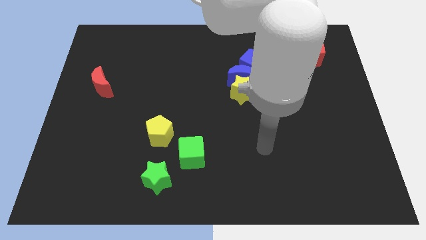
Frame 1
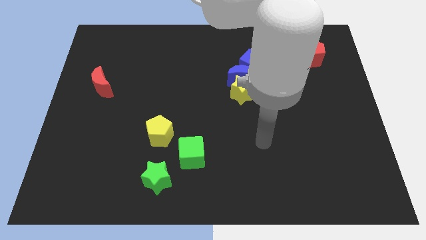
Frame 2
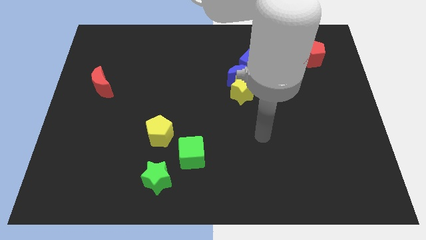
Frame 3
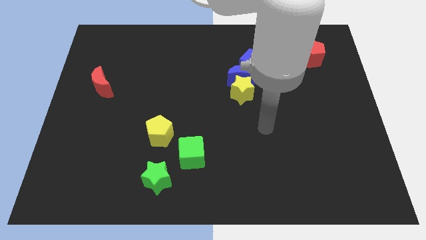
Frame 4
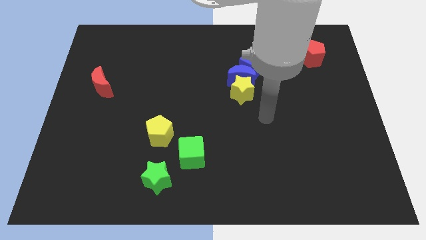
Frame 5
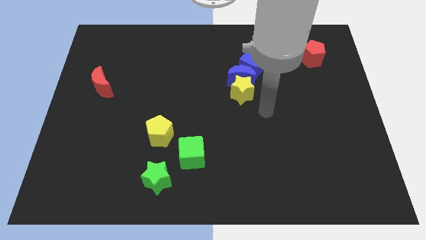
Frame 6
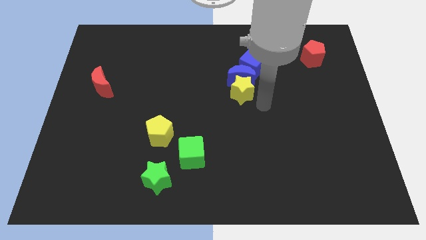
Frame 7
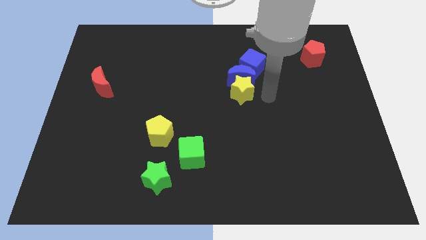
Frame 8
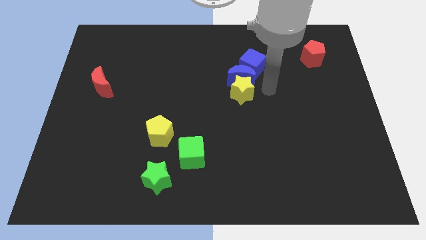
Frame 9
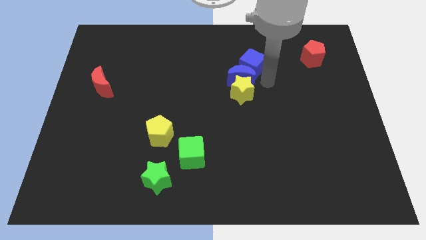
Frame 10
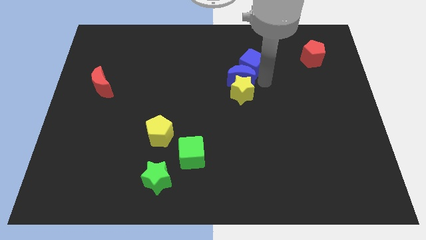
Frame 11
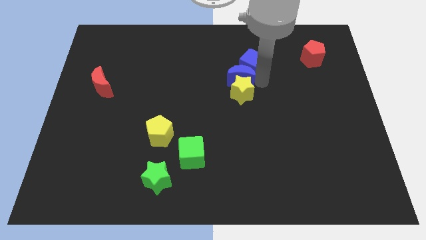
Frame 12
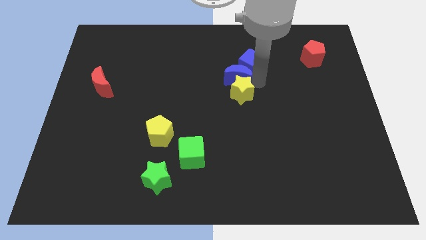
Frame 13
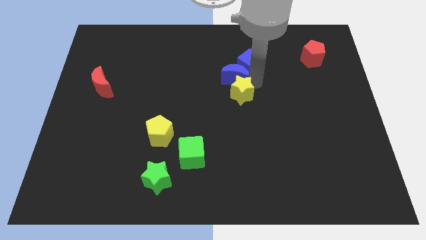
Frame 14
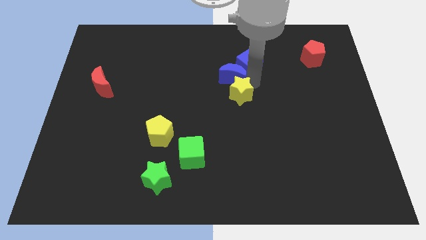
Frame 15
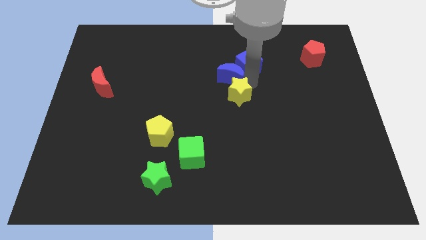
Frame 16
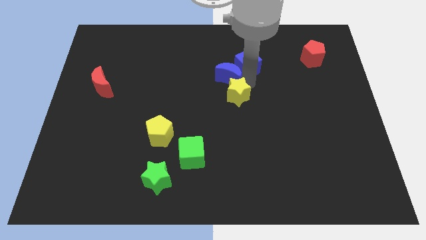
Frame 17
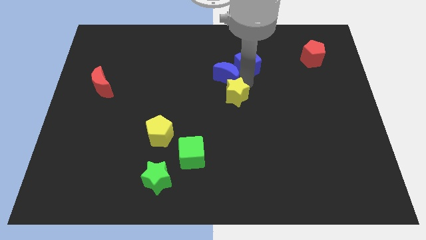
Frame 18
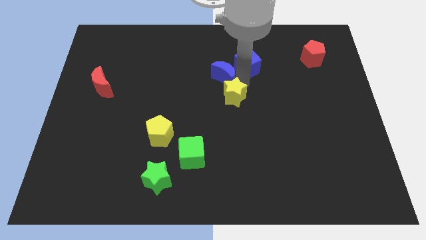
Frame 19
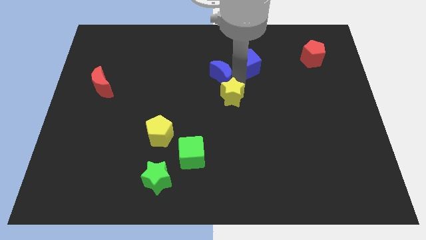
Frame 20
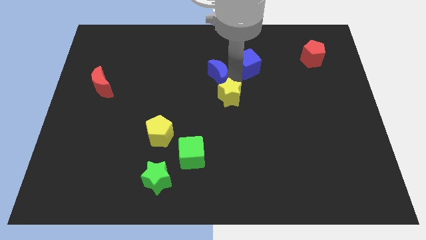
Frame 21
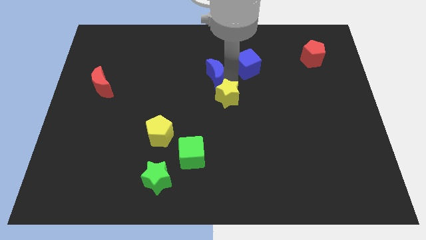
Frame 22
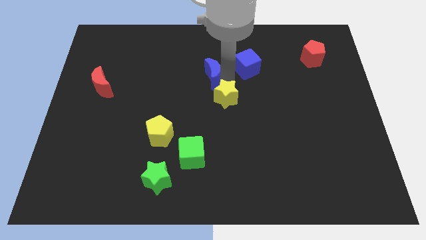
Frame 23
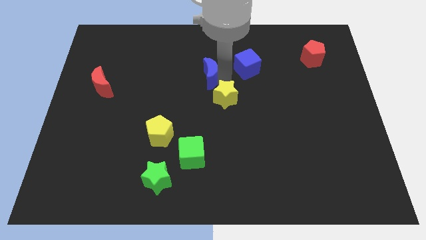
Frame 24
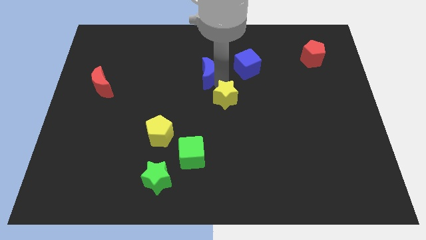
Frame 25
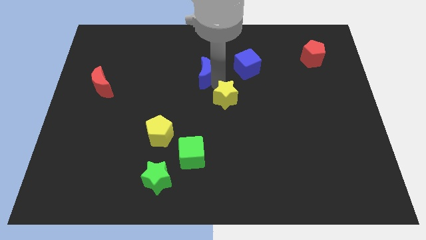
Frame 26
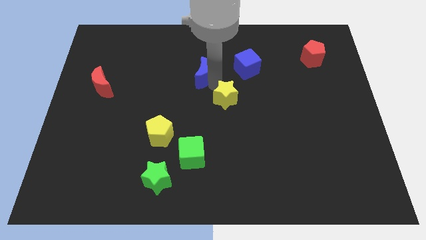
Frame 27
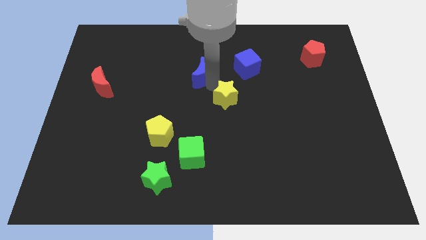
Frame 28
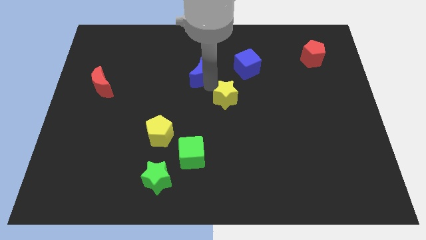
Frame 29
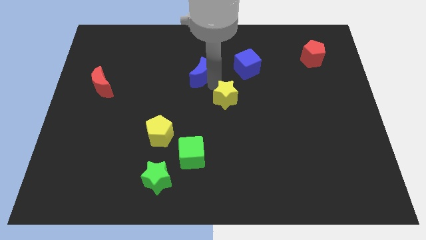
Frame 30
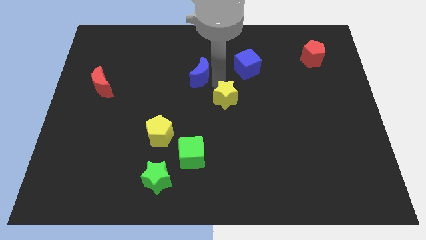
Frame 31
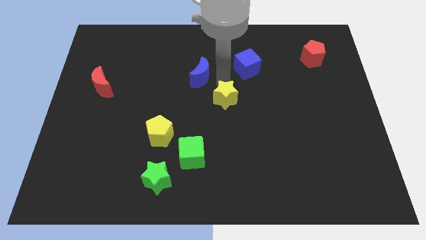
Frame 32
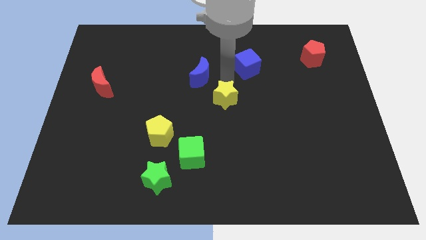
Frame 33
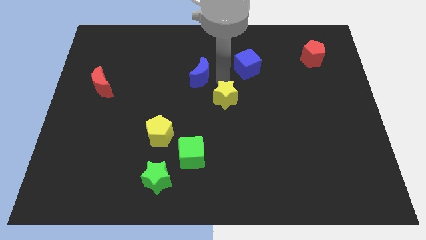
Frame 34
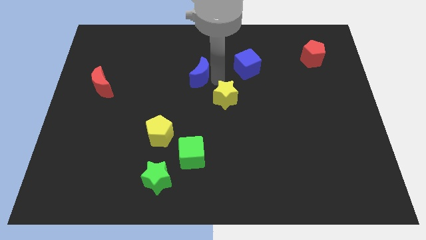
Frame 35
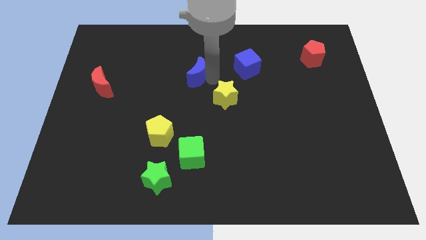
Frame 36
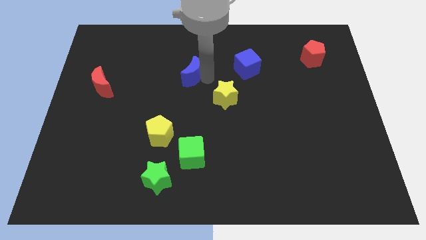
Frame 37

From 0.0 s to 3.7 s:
separate the blue moon from the yellow star and blue cube

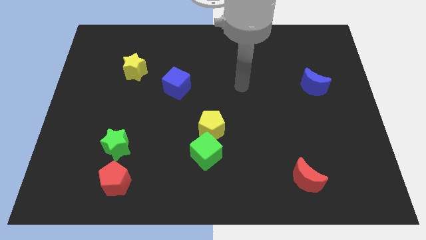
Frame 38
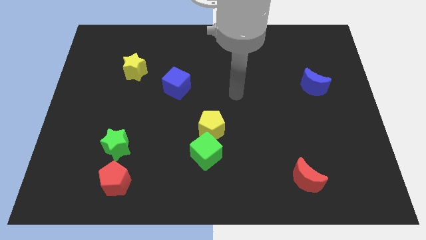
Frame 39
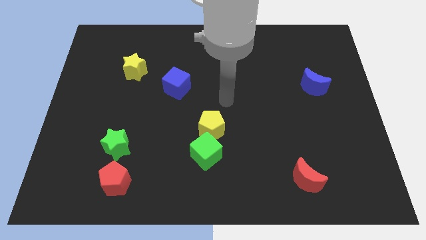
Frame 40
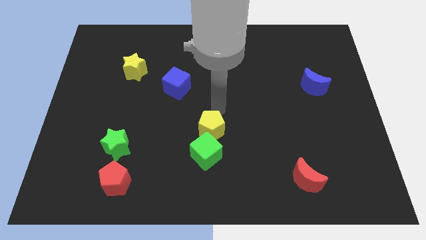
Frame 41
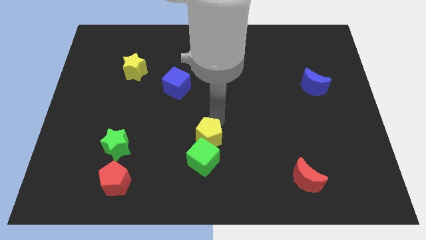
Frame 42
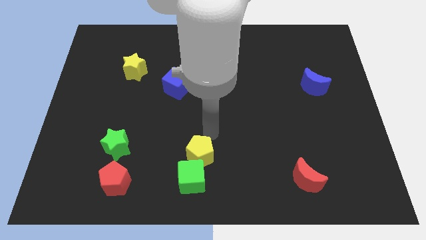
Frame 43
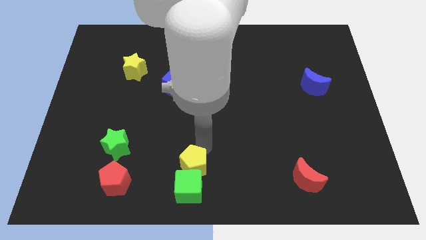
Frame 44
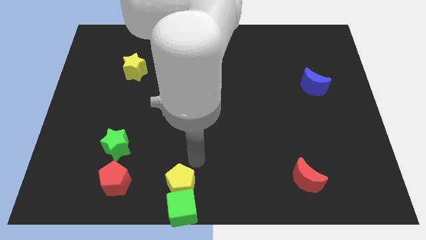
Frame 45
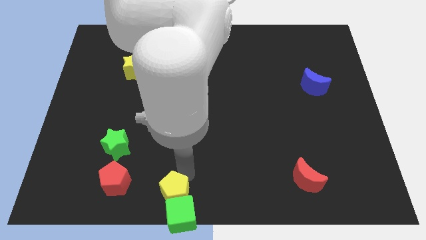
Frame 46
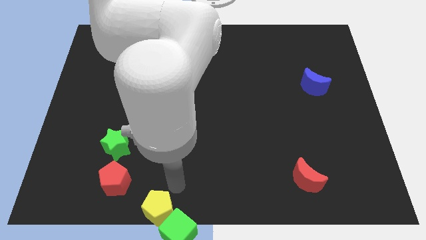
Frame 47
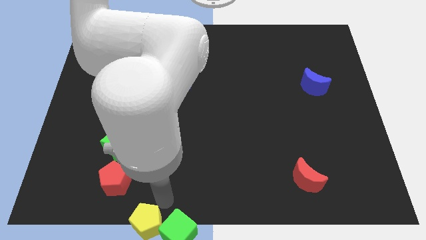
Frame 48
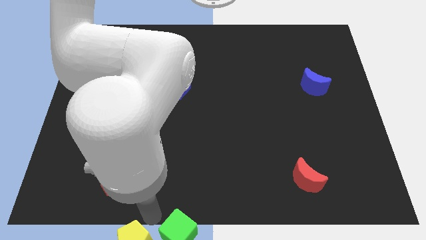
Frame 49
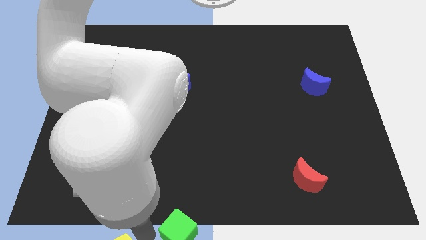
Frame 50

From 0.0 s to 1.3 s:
move the green cube away from the yellow pentagon

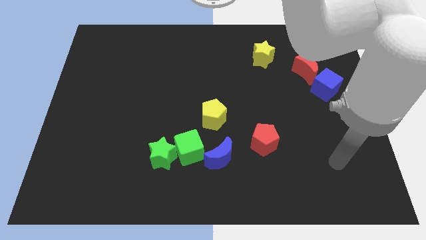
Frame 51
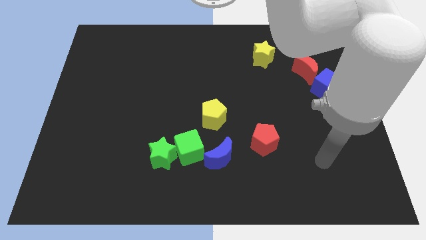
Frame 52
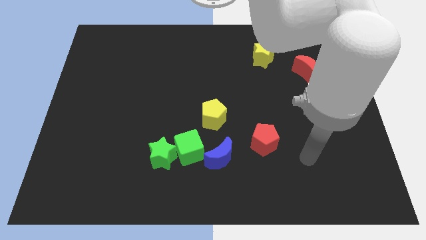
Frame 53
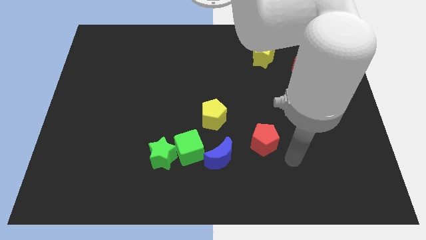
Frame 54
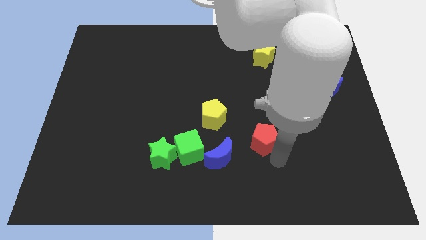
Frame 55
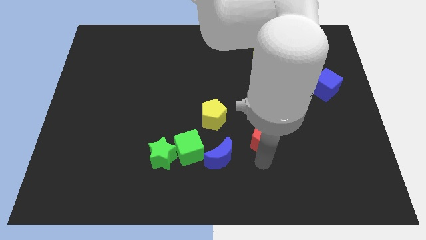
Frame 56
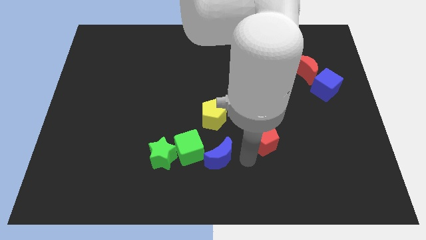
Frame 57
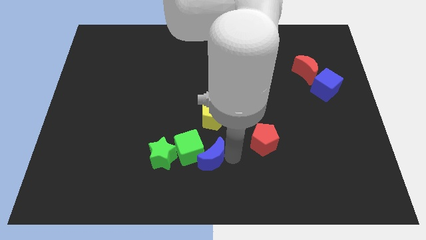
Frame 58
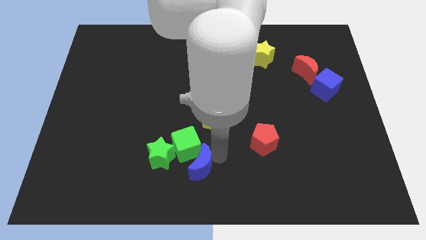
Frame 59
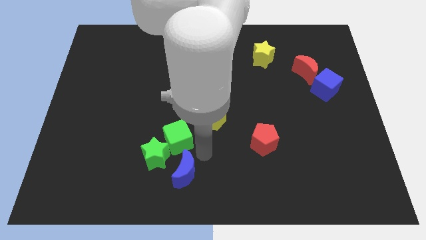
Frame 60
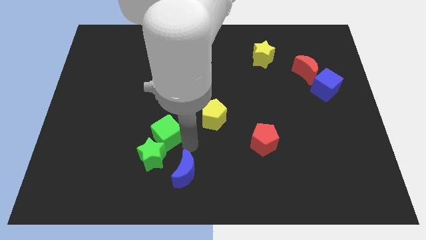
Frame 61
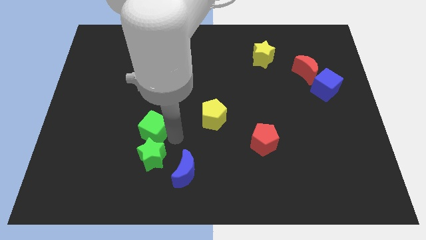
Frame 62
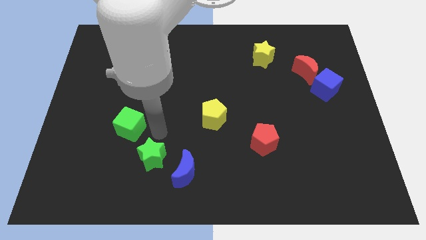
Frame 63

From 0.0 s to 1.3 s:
move the green star away from the green cube

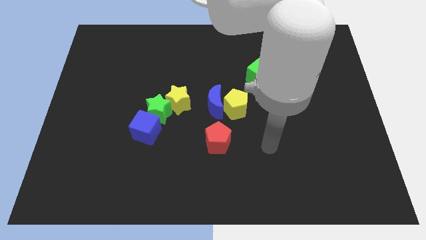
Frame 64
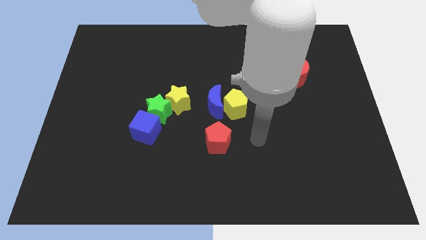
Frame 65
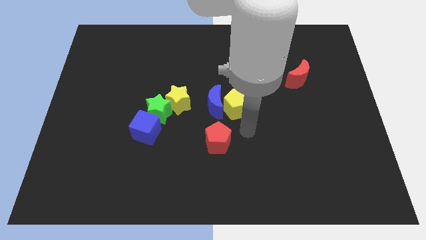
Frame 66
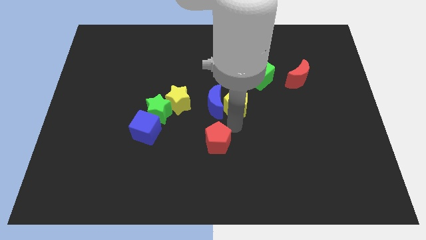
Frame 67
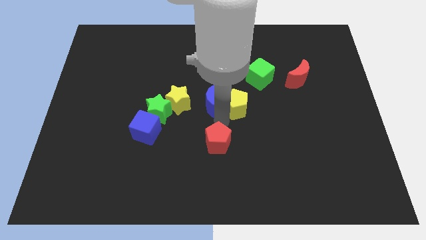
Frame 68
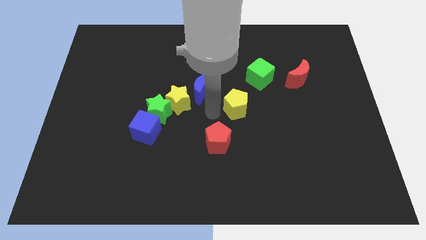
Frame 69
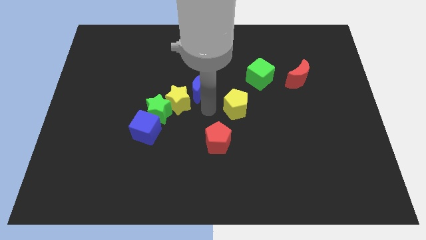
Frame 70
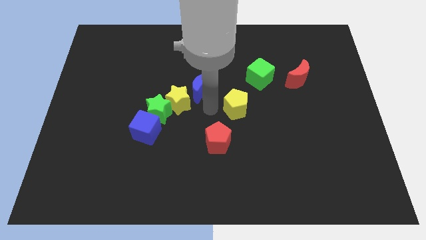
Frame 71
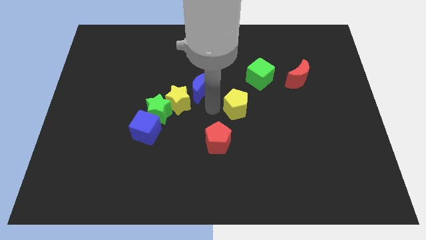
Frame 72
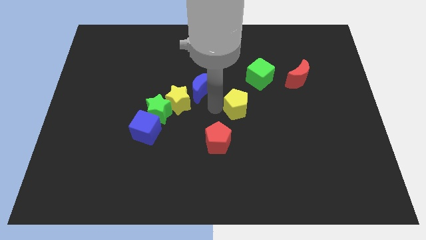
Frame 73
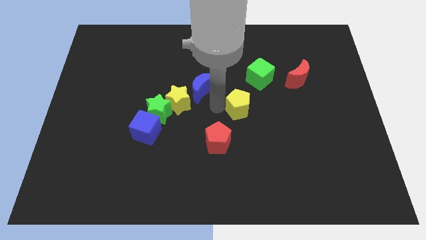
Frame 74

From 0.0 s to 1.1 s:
move the yellow pentagon away from the blue moon

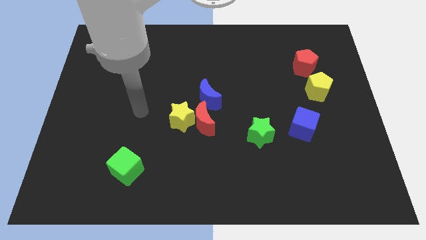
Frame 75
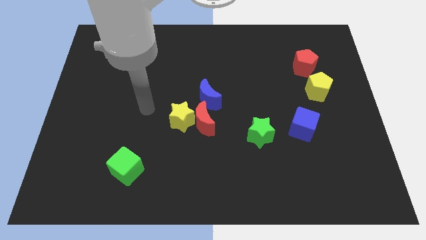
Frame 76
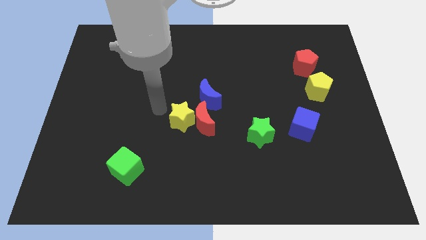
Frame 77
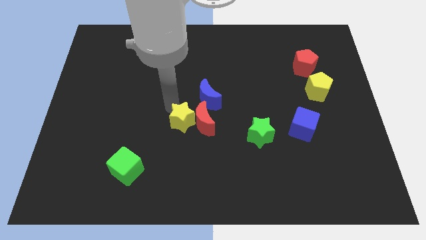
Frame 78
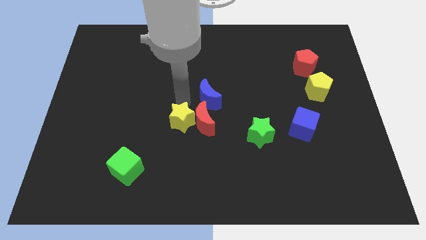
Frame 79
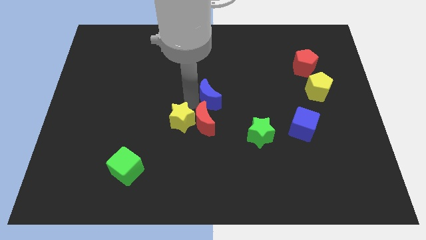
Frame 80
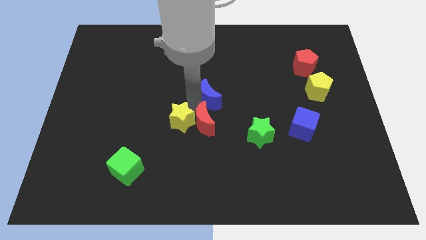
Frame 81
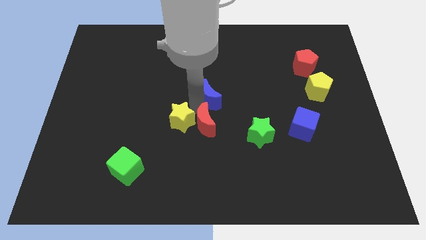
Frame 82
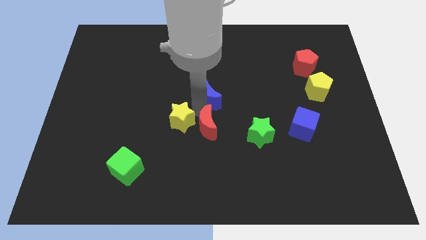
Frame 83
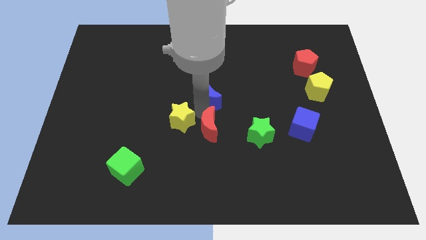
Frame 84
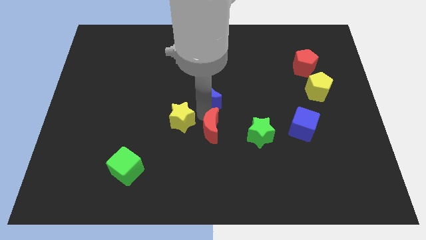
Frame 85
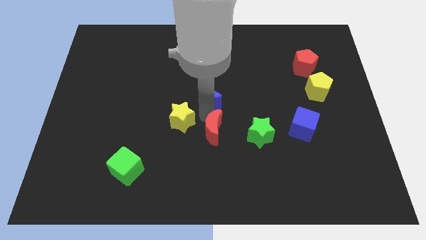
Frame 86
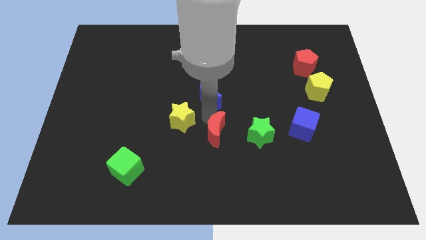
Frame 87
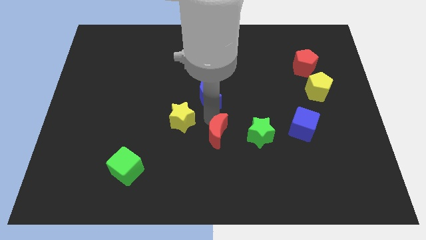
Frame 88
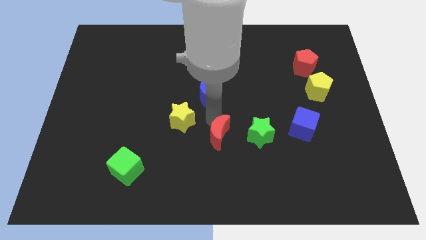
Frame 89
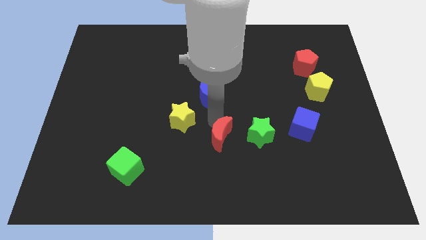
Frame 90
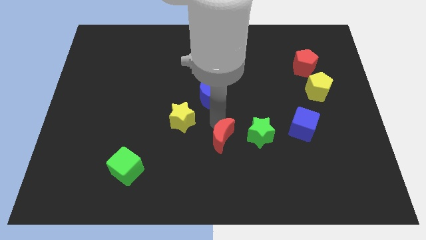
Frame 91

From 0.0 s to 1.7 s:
pull the red moon apart from the yellow star and blue moon

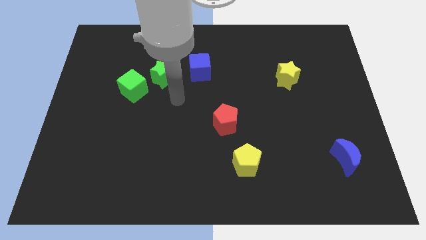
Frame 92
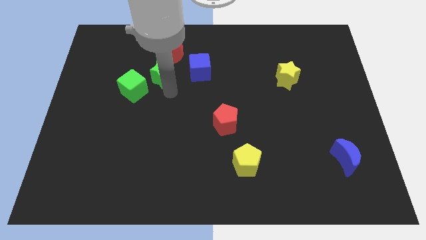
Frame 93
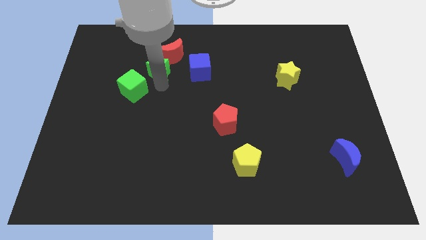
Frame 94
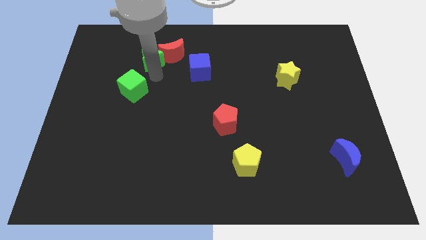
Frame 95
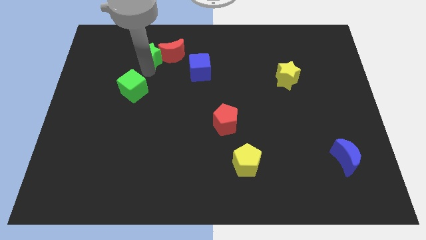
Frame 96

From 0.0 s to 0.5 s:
move the green cube away from the green star
